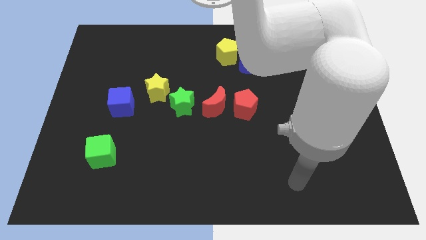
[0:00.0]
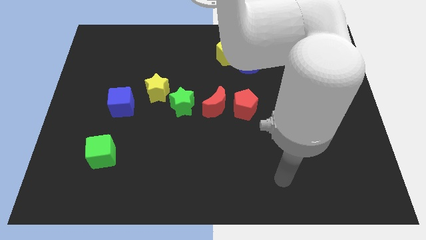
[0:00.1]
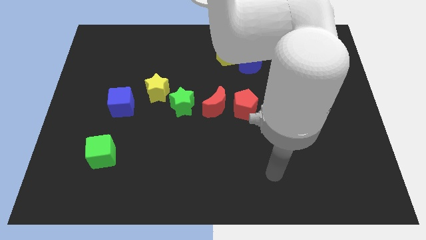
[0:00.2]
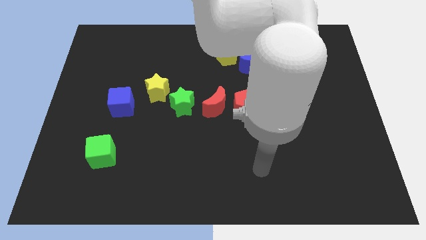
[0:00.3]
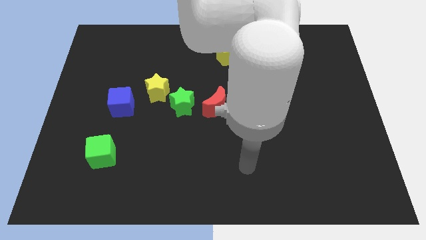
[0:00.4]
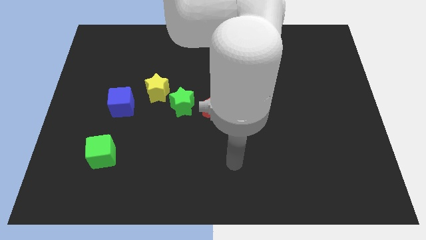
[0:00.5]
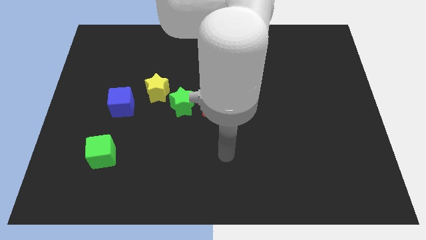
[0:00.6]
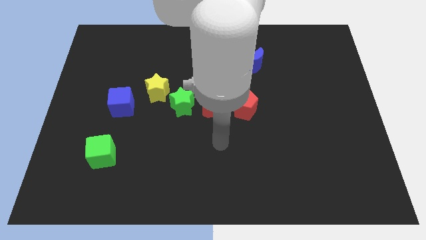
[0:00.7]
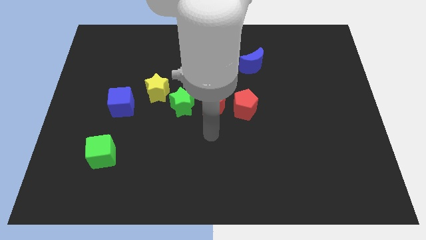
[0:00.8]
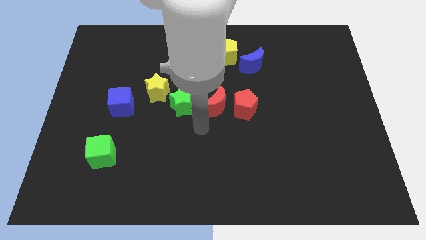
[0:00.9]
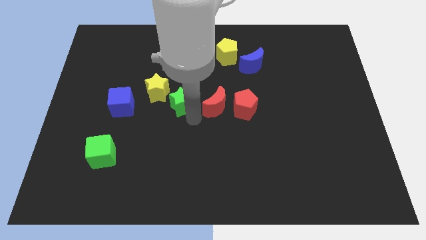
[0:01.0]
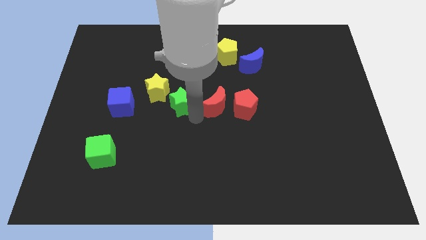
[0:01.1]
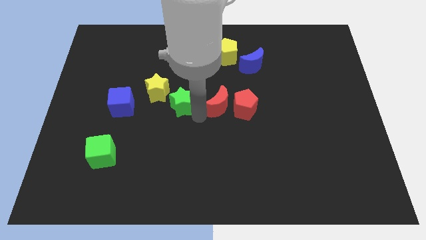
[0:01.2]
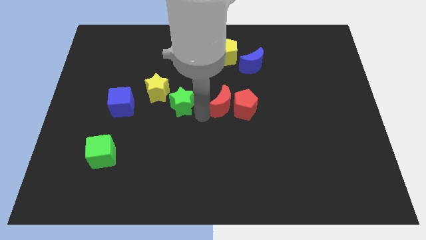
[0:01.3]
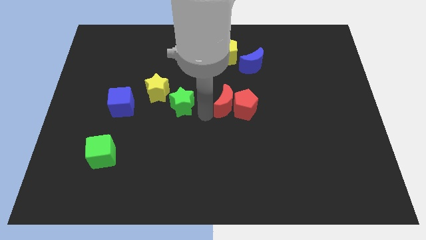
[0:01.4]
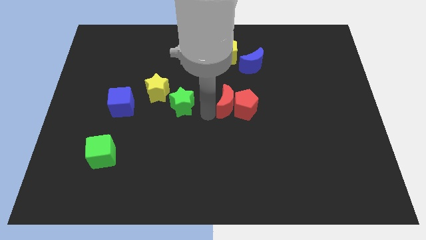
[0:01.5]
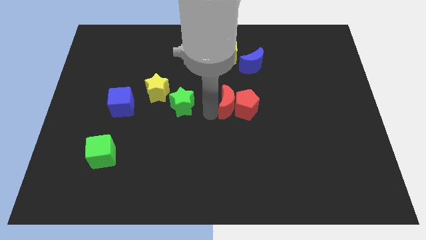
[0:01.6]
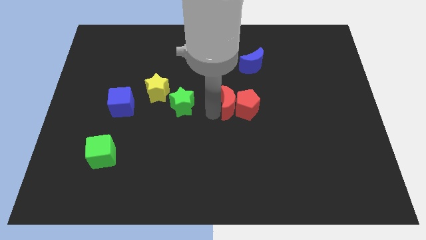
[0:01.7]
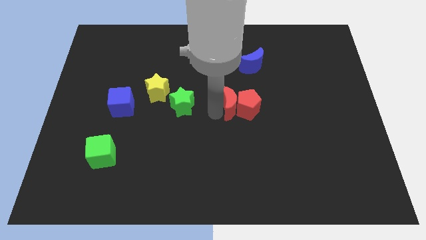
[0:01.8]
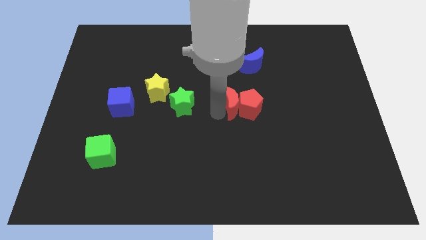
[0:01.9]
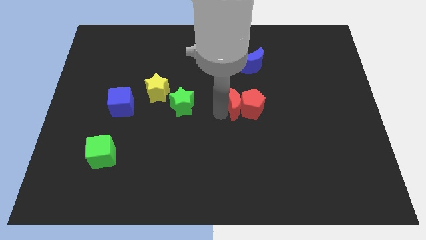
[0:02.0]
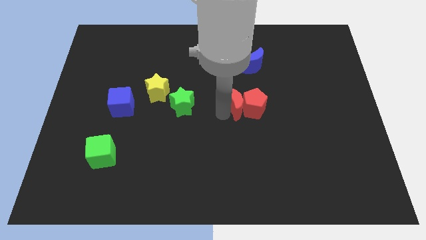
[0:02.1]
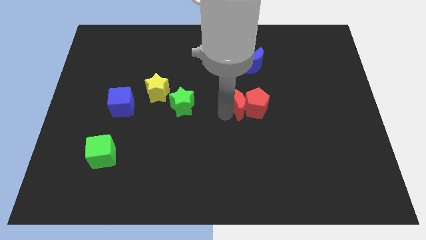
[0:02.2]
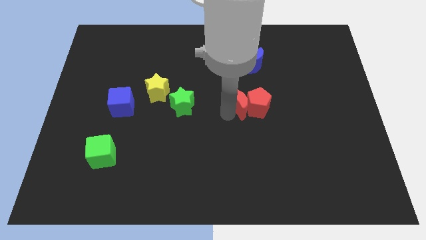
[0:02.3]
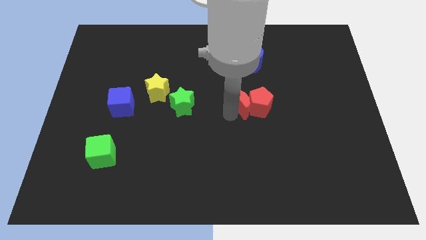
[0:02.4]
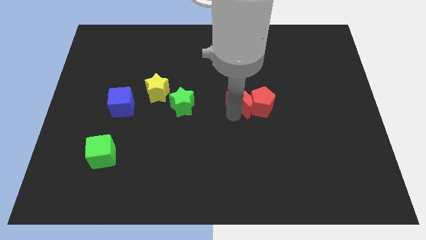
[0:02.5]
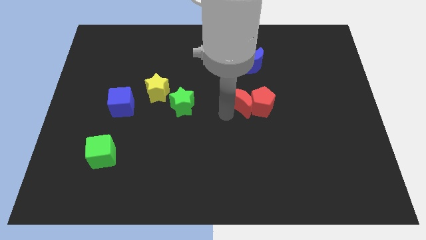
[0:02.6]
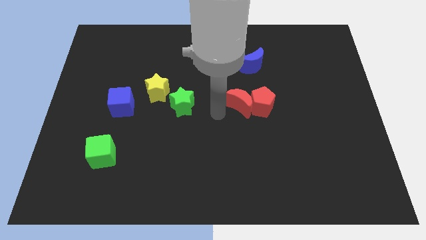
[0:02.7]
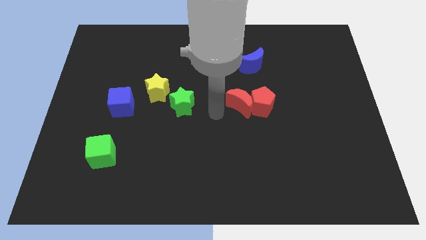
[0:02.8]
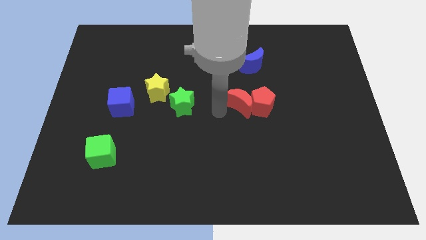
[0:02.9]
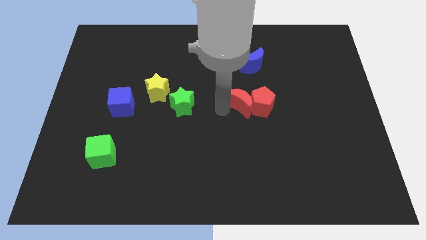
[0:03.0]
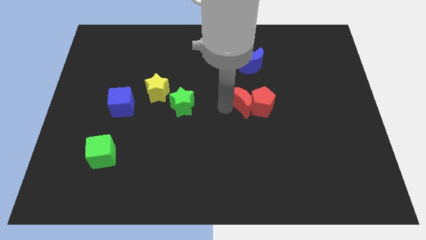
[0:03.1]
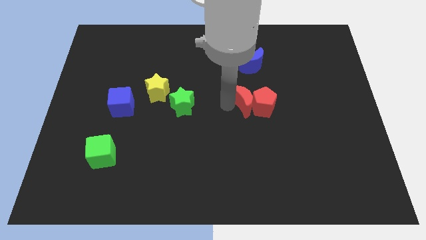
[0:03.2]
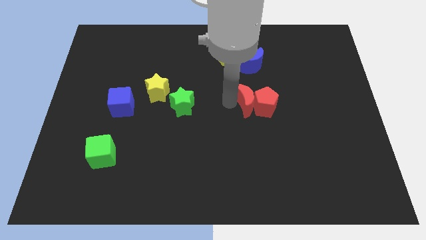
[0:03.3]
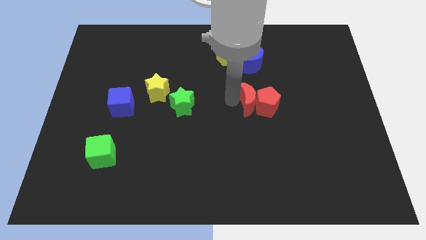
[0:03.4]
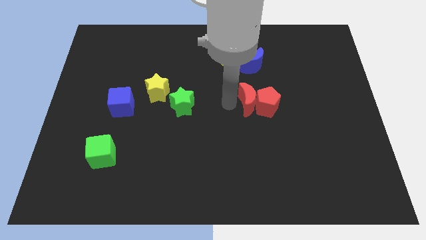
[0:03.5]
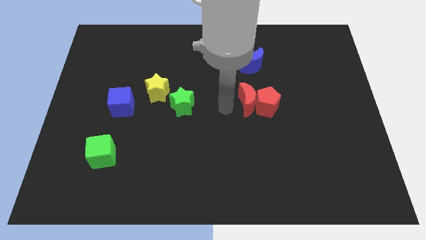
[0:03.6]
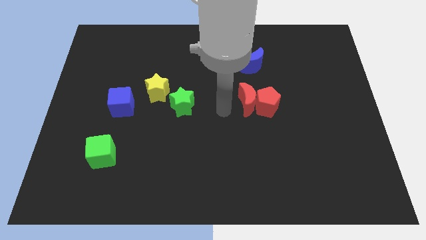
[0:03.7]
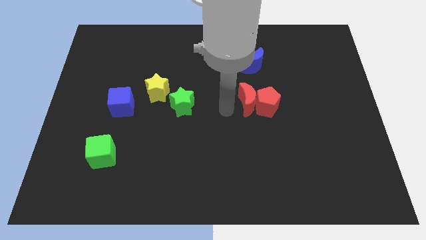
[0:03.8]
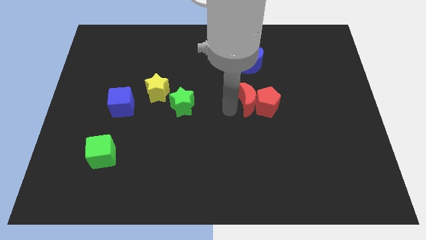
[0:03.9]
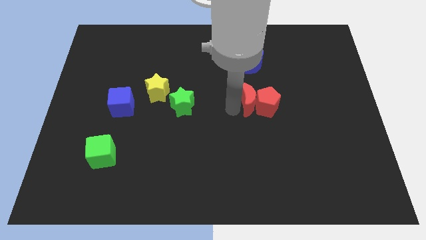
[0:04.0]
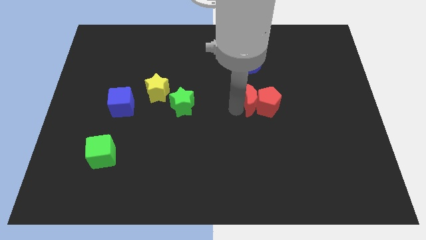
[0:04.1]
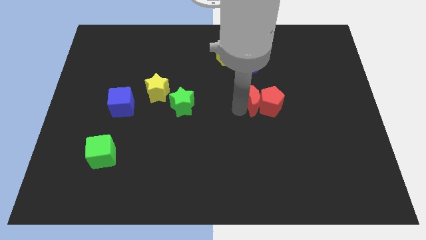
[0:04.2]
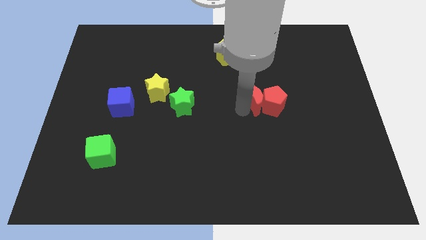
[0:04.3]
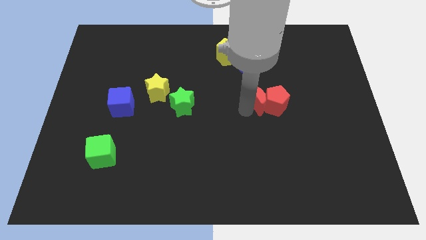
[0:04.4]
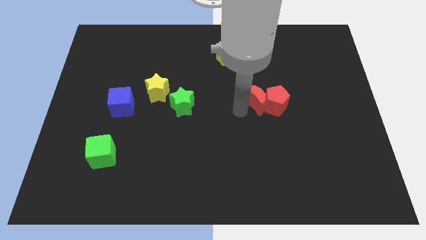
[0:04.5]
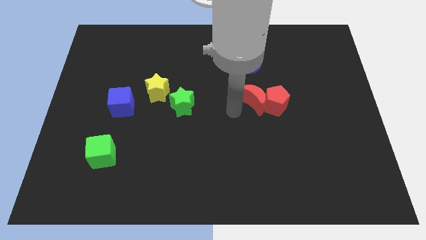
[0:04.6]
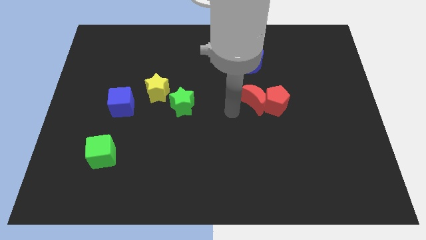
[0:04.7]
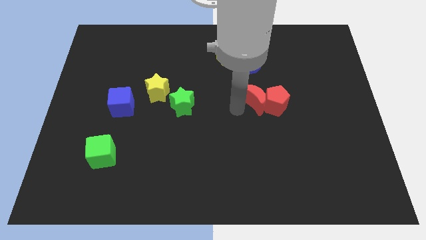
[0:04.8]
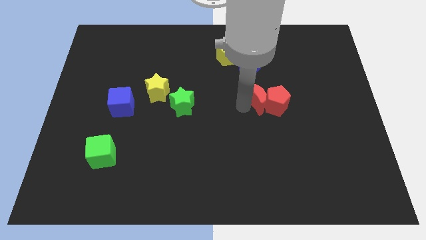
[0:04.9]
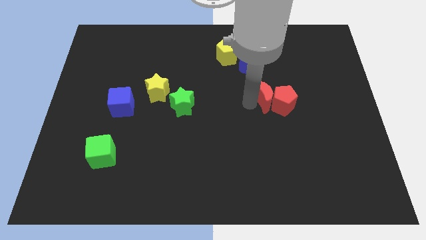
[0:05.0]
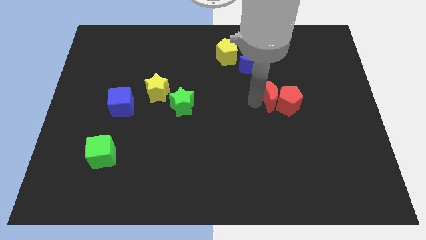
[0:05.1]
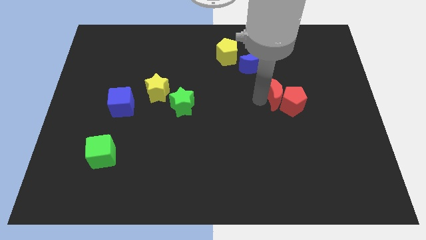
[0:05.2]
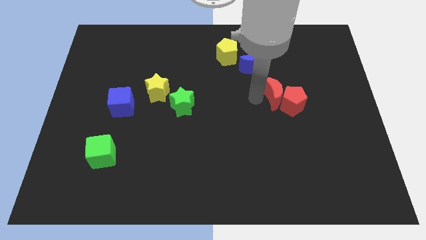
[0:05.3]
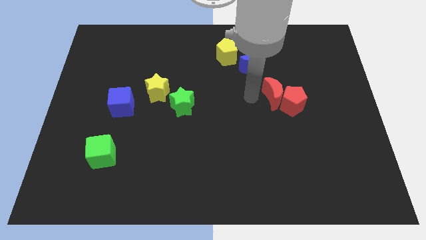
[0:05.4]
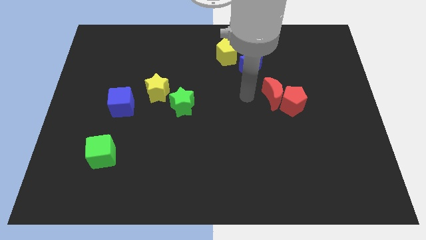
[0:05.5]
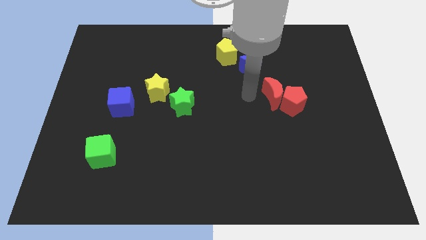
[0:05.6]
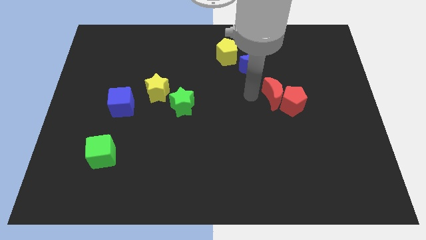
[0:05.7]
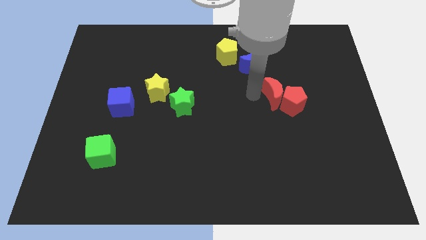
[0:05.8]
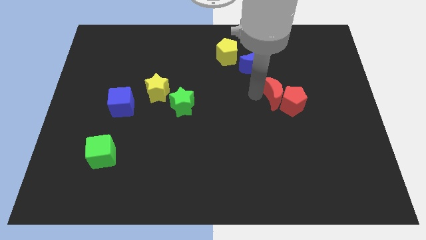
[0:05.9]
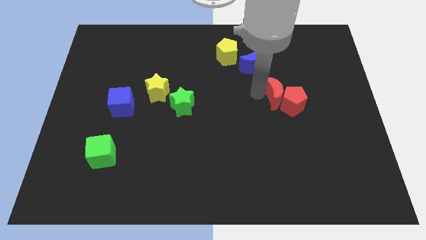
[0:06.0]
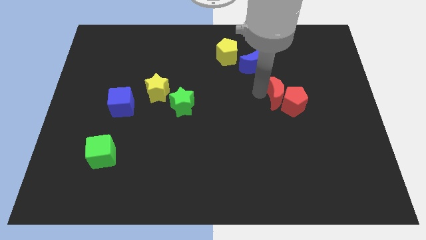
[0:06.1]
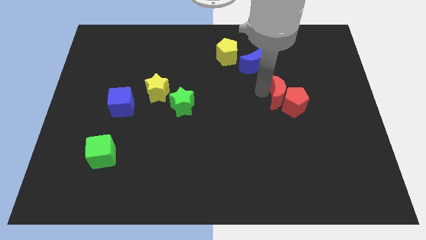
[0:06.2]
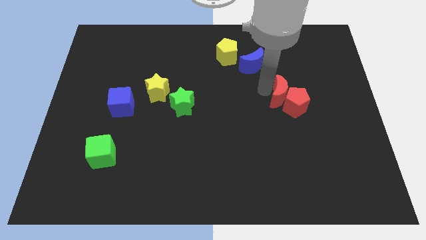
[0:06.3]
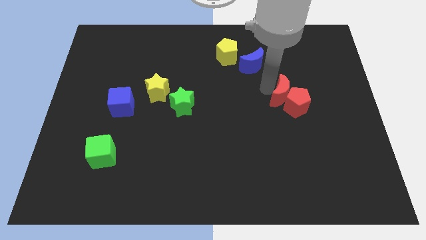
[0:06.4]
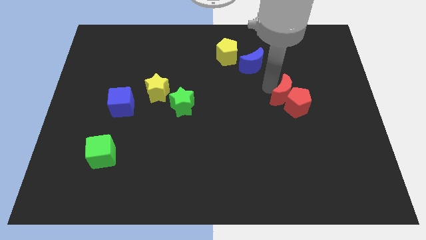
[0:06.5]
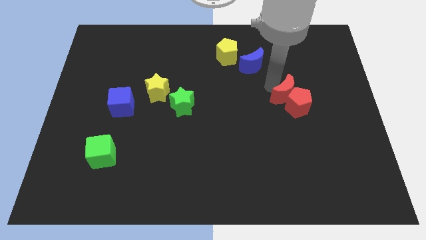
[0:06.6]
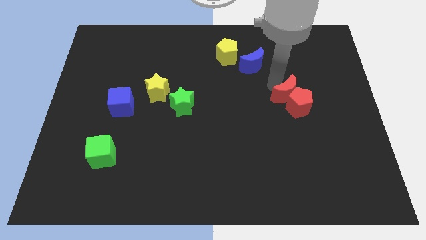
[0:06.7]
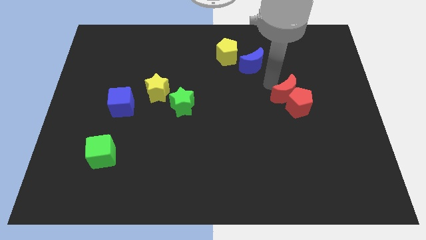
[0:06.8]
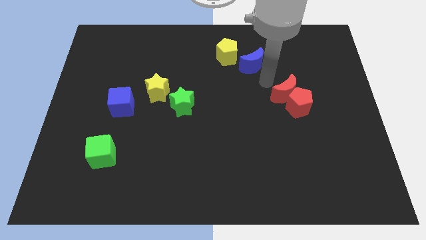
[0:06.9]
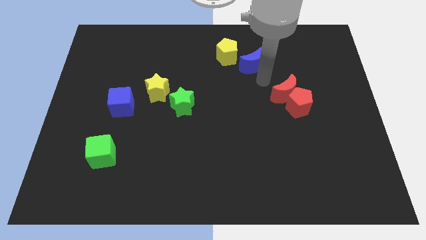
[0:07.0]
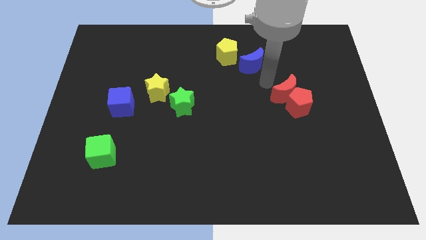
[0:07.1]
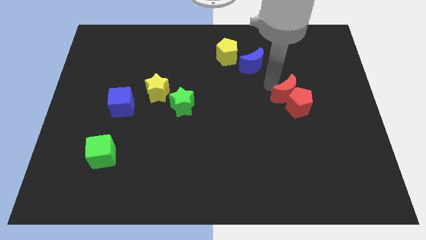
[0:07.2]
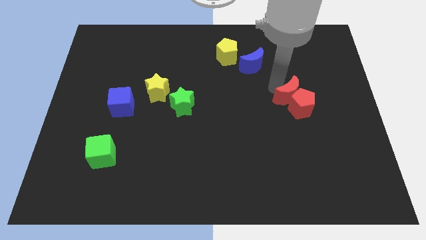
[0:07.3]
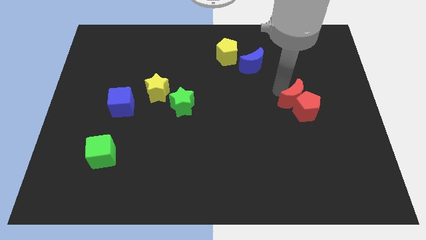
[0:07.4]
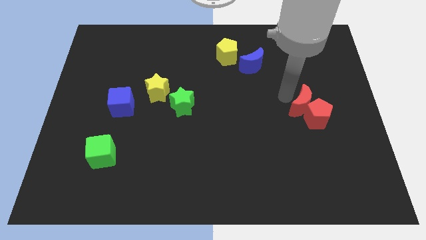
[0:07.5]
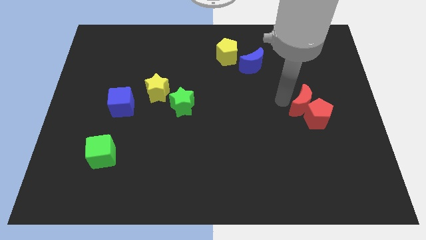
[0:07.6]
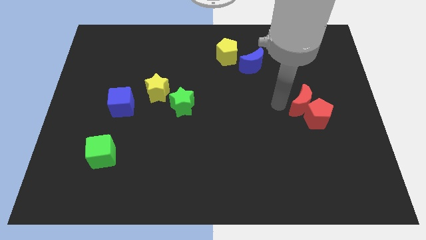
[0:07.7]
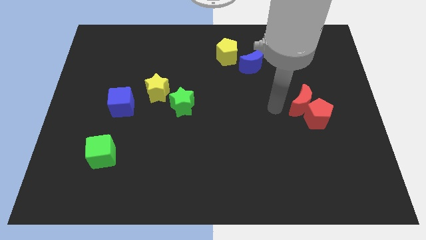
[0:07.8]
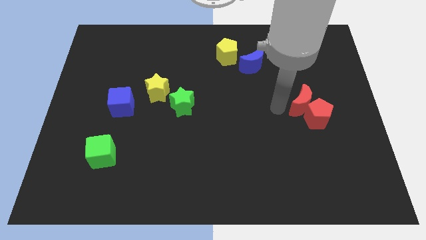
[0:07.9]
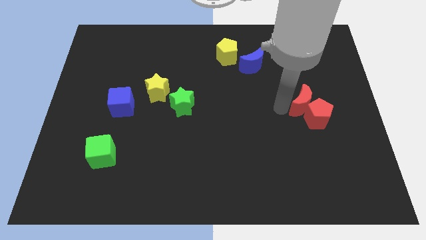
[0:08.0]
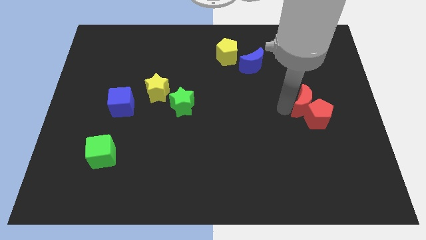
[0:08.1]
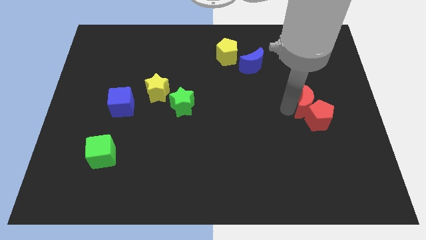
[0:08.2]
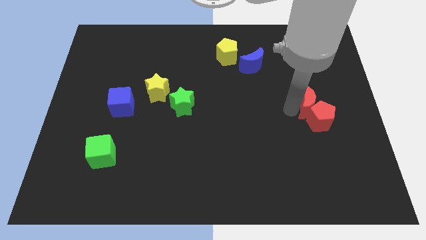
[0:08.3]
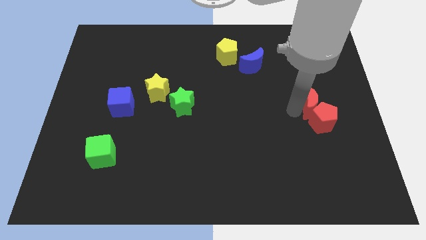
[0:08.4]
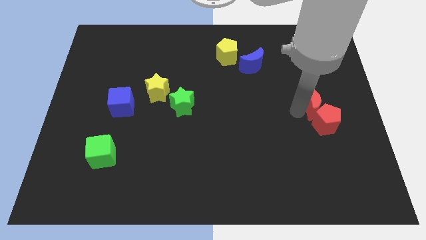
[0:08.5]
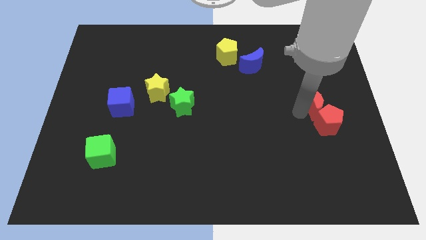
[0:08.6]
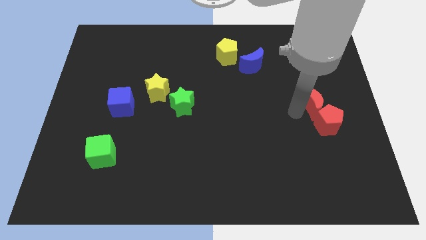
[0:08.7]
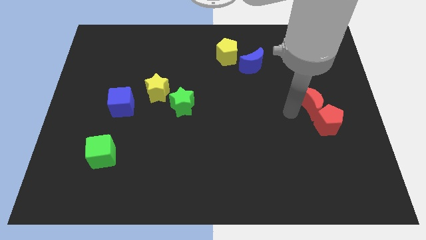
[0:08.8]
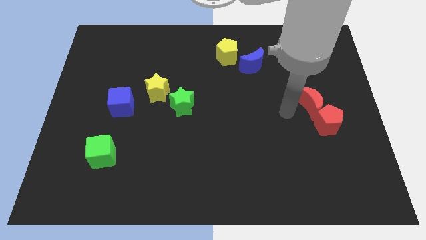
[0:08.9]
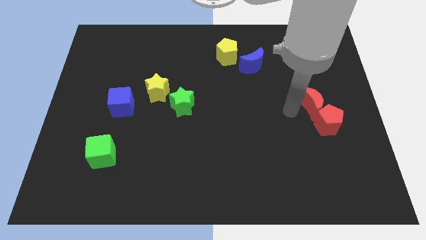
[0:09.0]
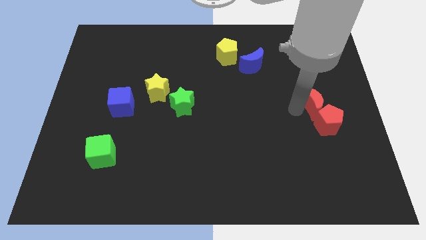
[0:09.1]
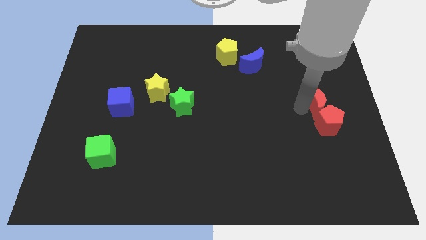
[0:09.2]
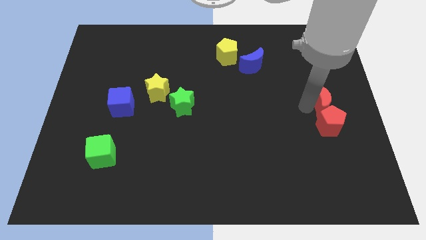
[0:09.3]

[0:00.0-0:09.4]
put the red moon to the right side
